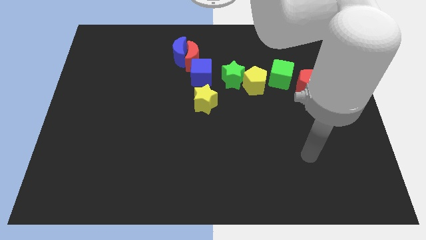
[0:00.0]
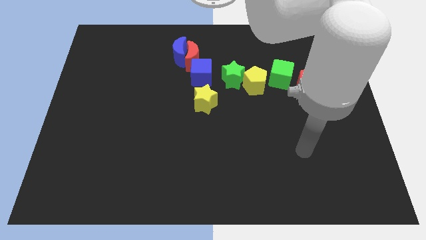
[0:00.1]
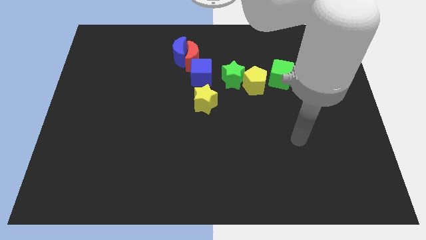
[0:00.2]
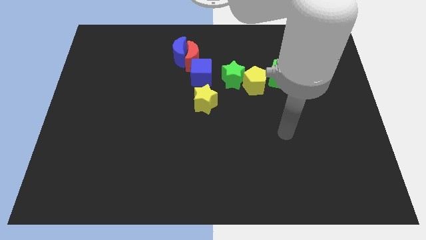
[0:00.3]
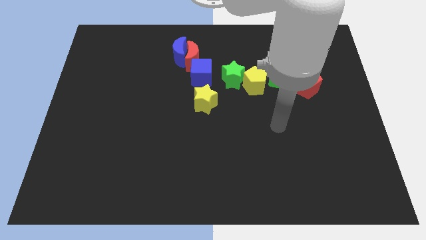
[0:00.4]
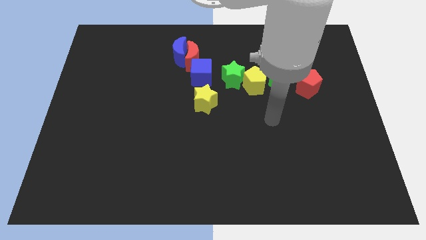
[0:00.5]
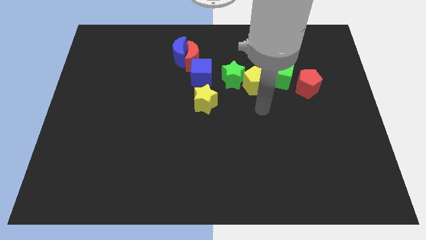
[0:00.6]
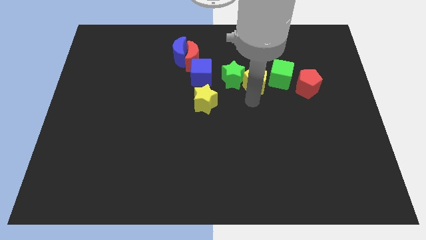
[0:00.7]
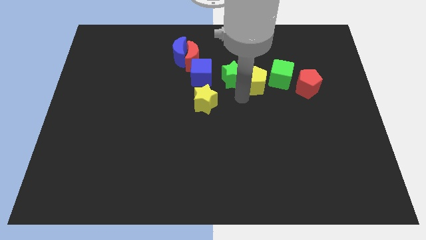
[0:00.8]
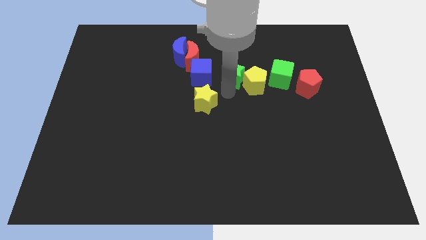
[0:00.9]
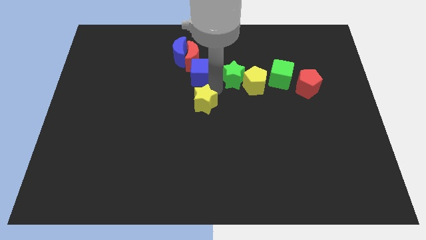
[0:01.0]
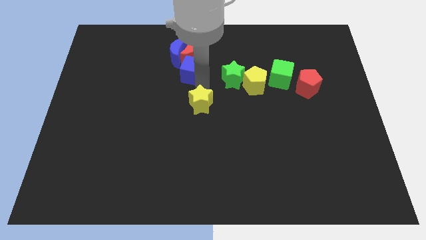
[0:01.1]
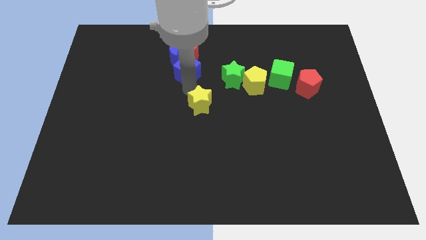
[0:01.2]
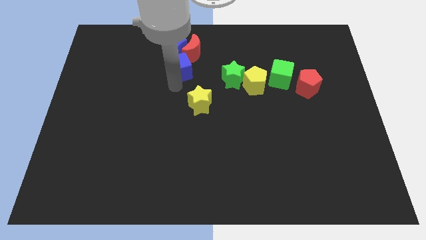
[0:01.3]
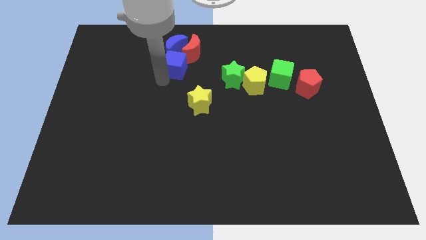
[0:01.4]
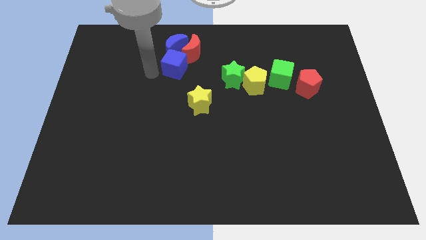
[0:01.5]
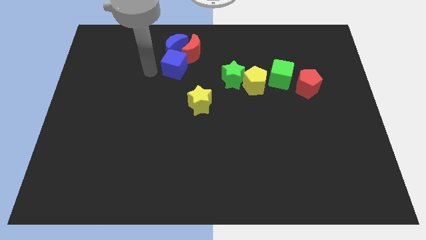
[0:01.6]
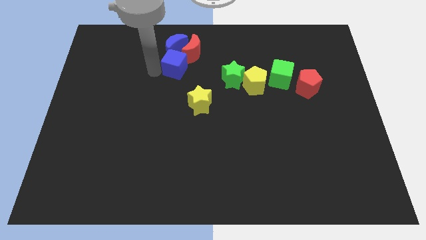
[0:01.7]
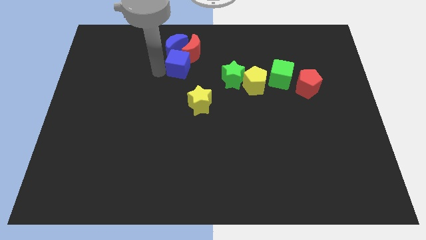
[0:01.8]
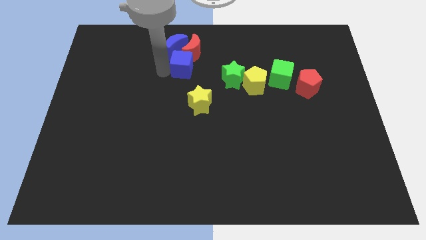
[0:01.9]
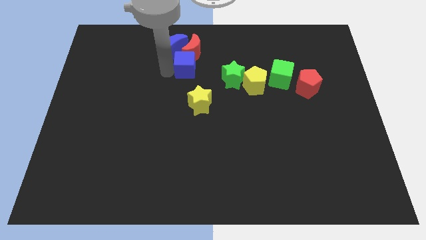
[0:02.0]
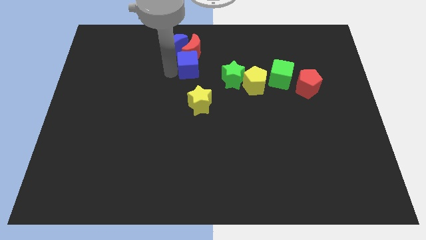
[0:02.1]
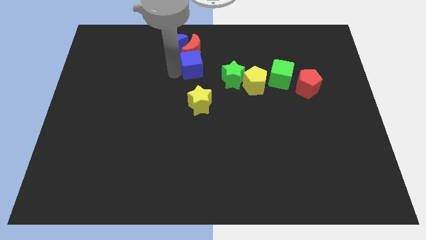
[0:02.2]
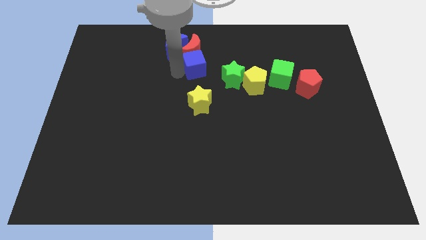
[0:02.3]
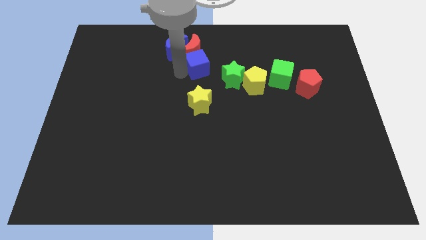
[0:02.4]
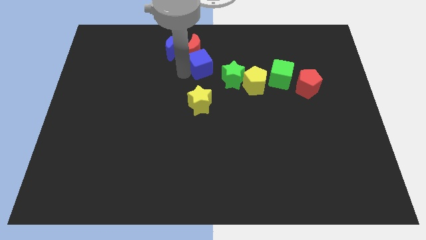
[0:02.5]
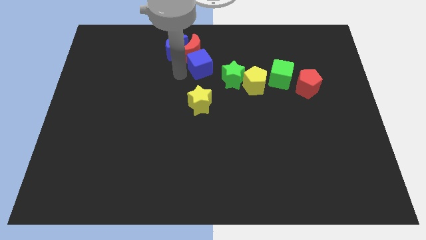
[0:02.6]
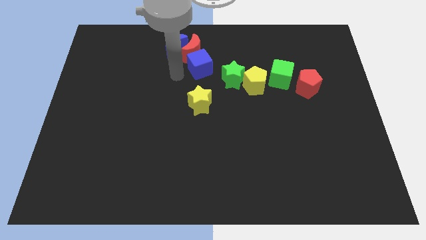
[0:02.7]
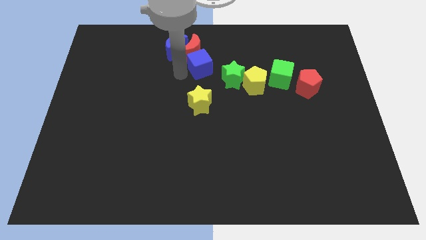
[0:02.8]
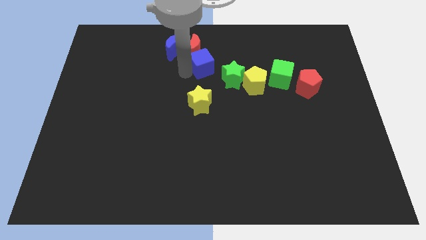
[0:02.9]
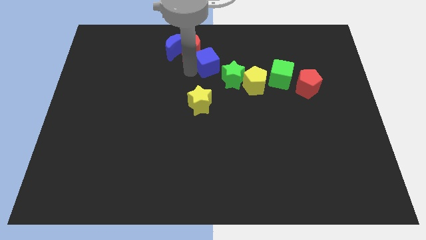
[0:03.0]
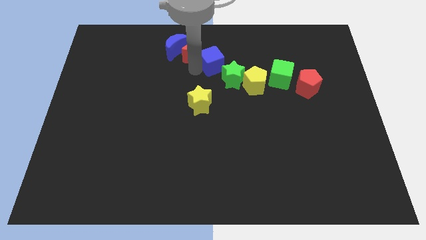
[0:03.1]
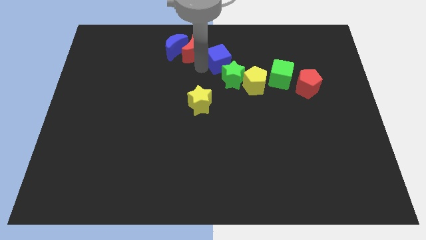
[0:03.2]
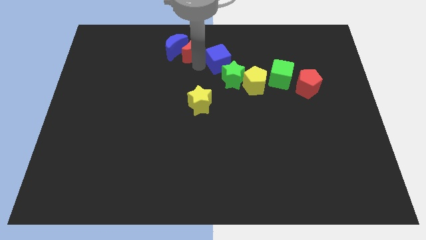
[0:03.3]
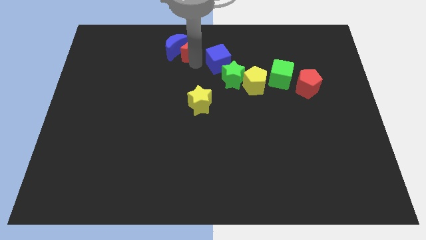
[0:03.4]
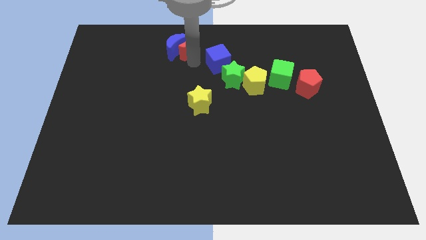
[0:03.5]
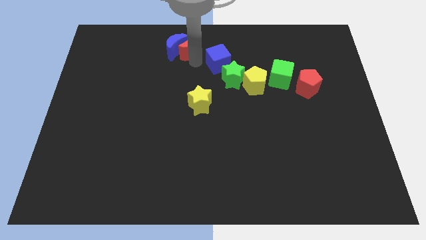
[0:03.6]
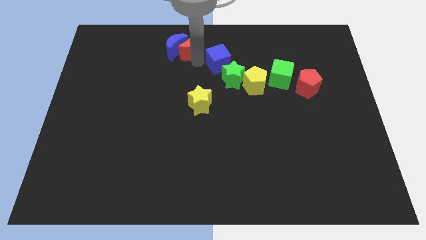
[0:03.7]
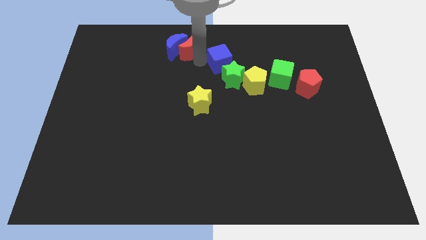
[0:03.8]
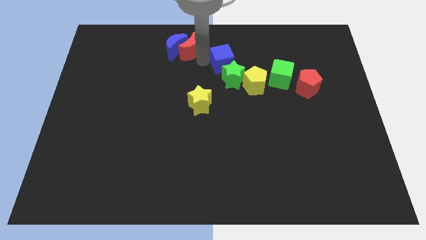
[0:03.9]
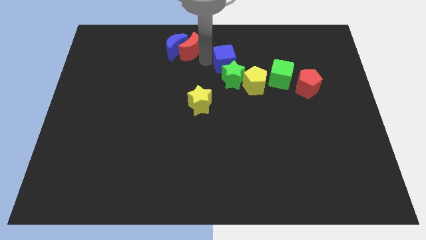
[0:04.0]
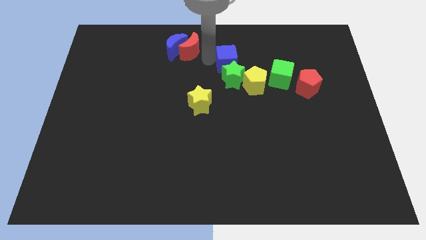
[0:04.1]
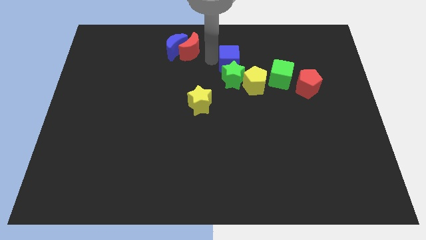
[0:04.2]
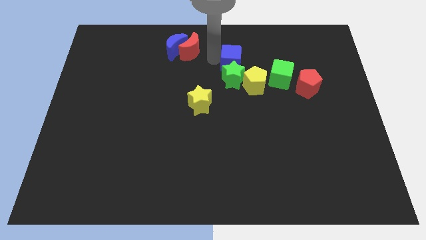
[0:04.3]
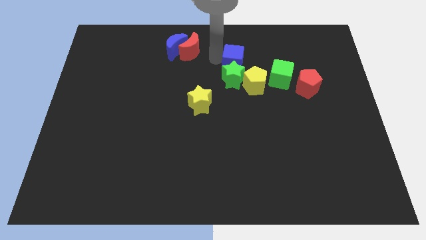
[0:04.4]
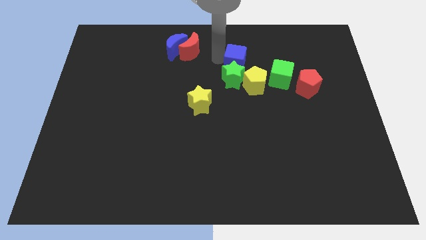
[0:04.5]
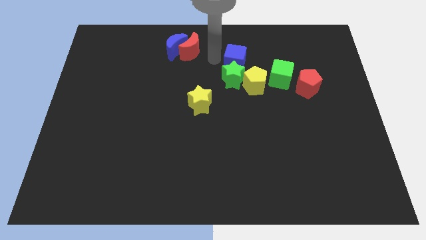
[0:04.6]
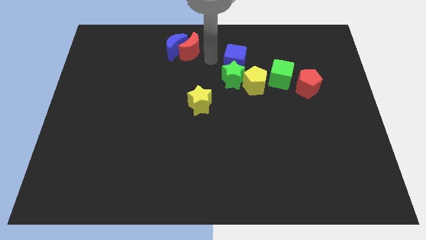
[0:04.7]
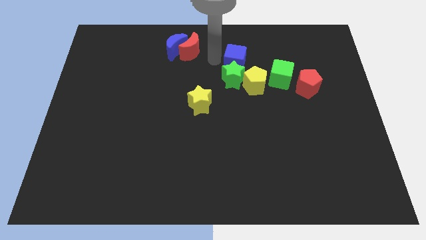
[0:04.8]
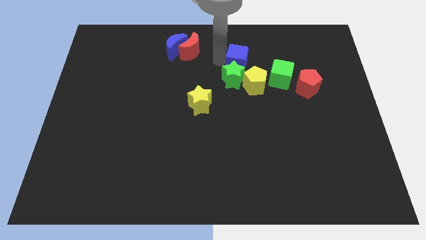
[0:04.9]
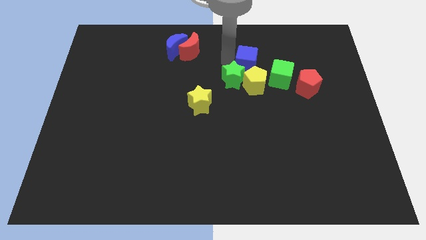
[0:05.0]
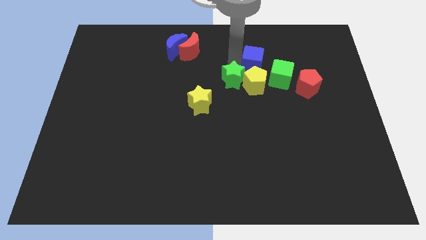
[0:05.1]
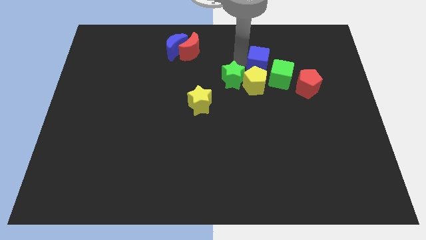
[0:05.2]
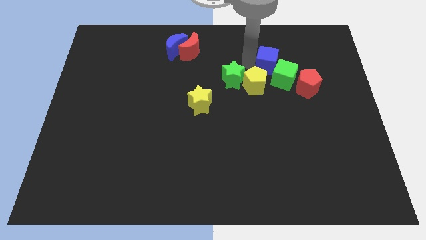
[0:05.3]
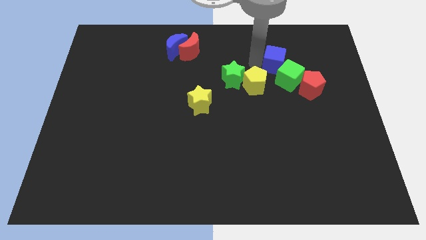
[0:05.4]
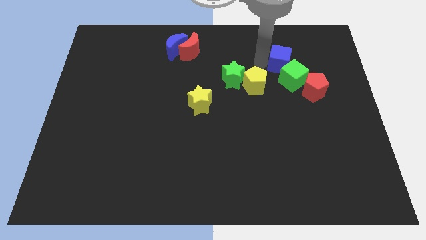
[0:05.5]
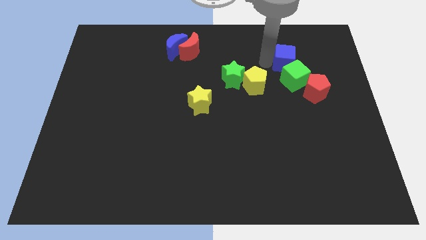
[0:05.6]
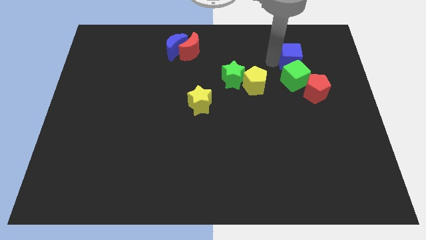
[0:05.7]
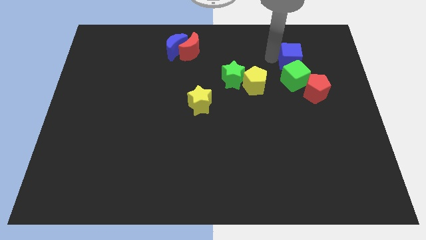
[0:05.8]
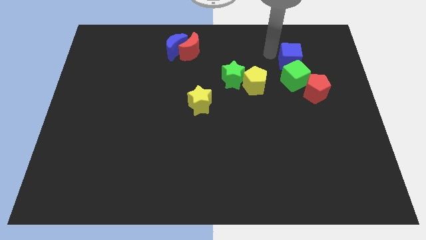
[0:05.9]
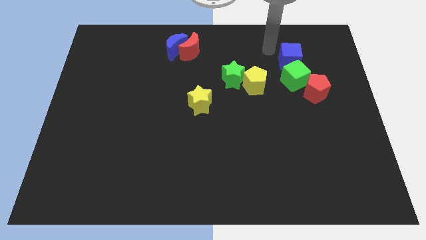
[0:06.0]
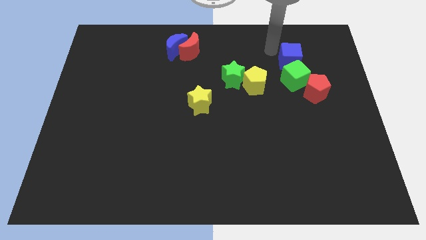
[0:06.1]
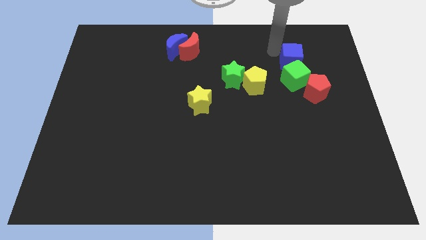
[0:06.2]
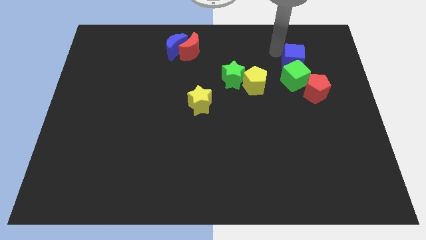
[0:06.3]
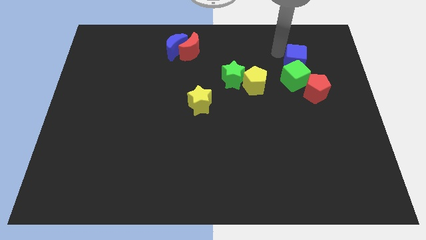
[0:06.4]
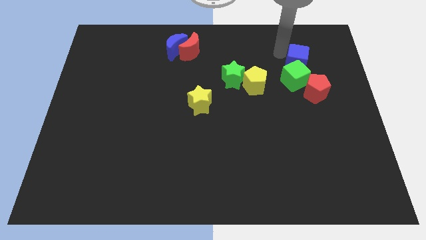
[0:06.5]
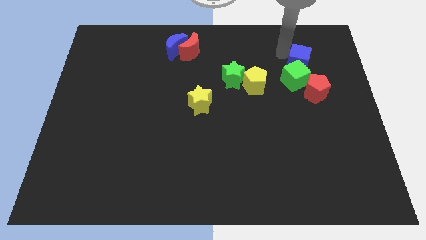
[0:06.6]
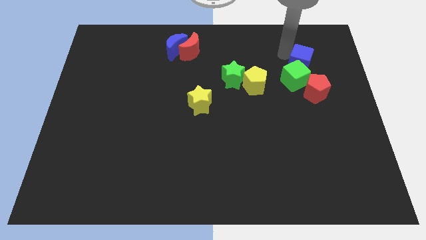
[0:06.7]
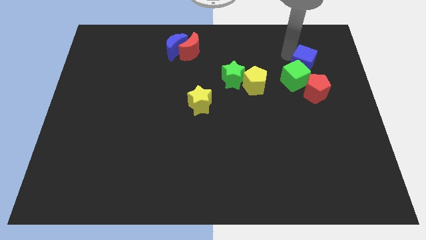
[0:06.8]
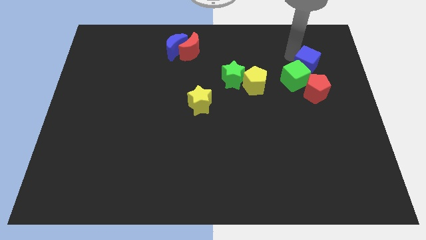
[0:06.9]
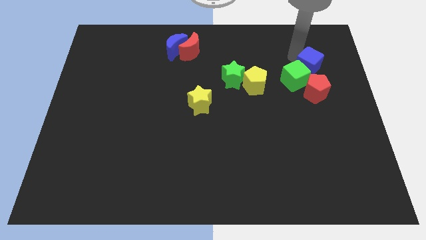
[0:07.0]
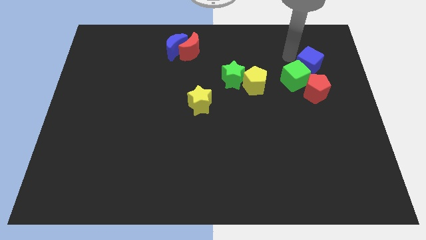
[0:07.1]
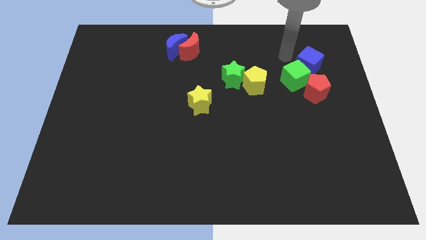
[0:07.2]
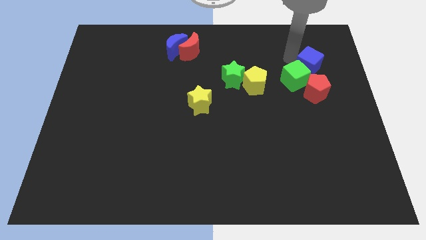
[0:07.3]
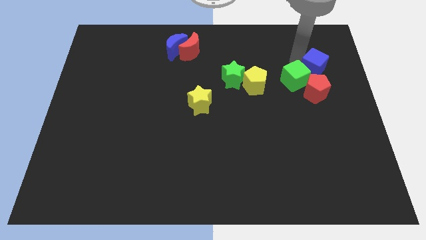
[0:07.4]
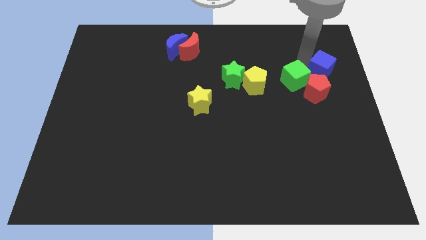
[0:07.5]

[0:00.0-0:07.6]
move the blue cube diagonally up and to the right of the red pentagon
